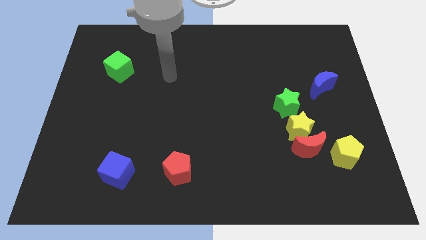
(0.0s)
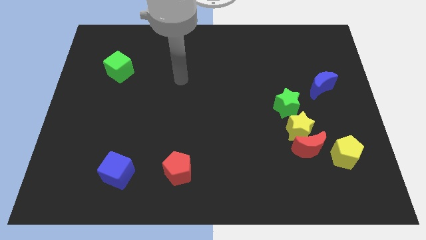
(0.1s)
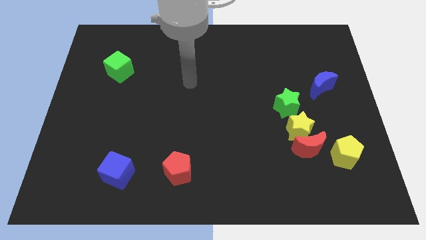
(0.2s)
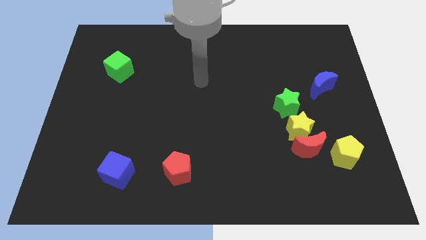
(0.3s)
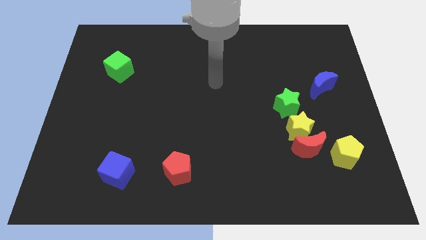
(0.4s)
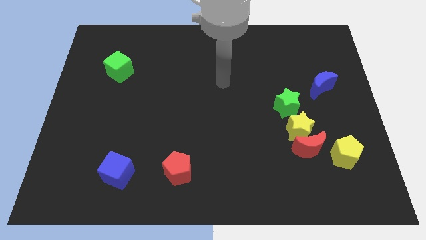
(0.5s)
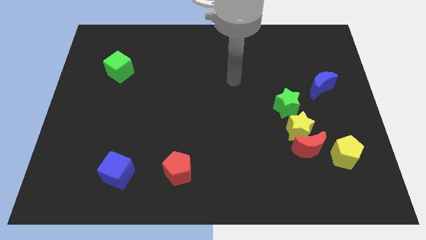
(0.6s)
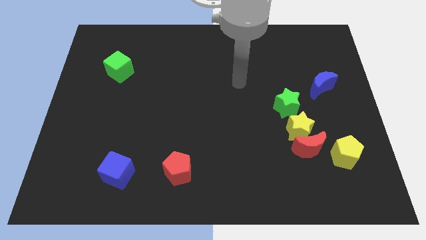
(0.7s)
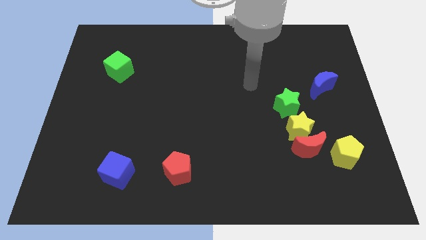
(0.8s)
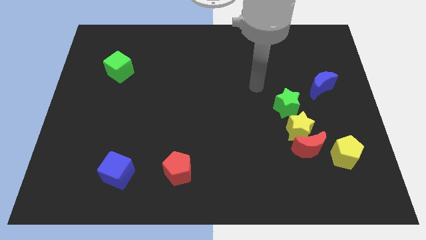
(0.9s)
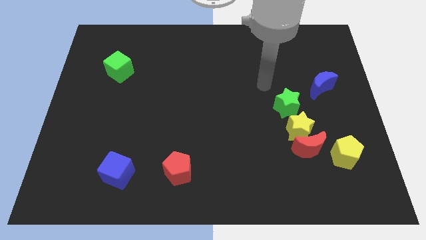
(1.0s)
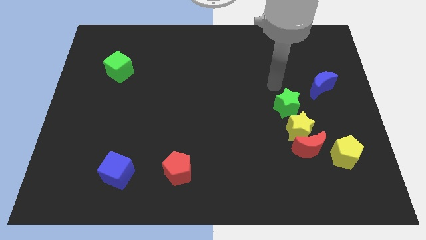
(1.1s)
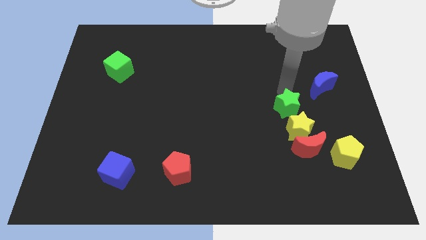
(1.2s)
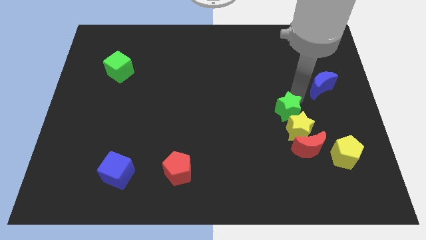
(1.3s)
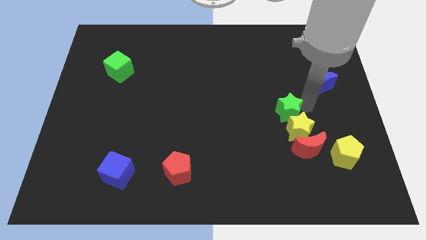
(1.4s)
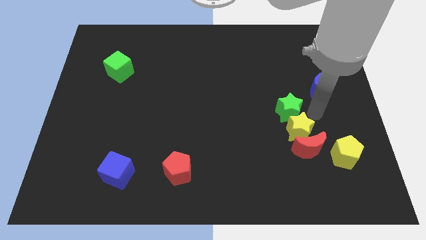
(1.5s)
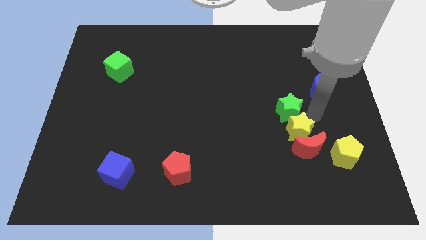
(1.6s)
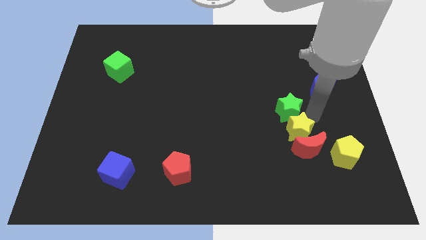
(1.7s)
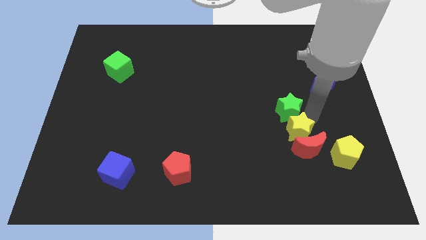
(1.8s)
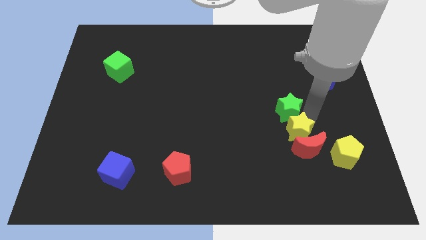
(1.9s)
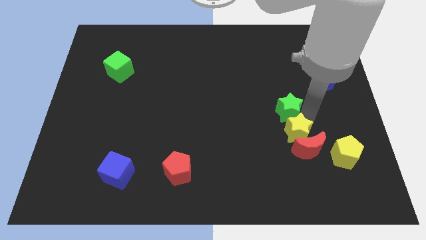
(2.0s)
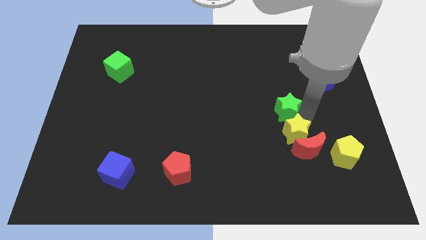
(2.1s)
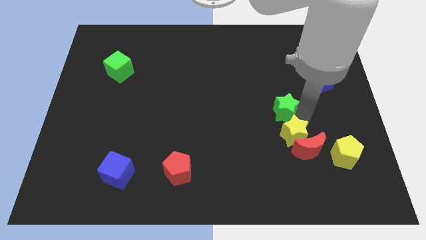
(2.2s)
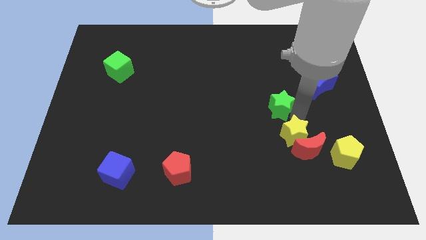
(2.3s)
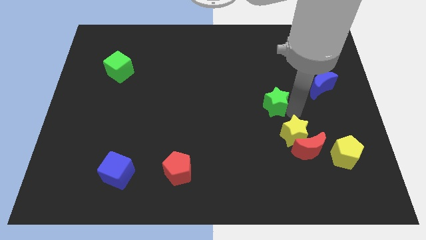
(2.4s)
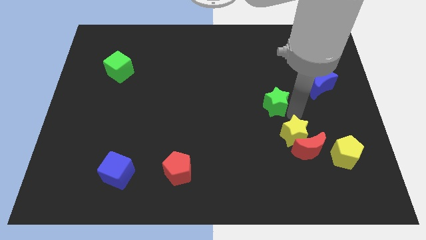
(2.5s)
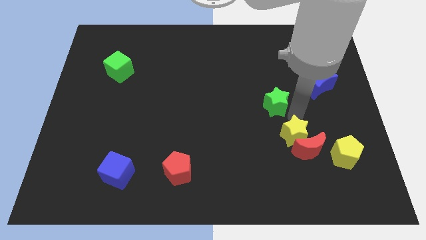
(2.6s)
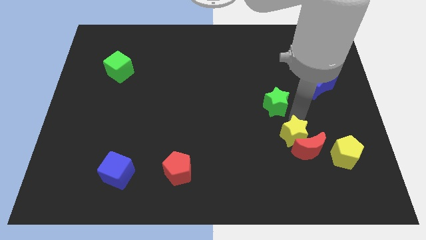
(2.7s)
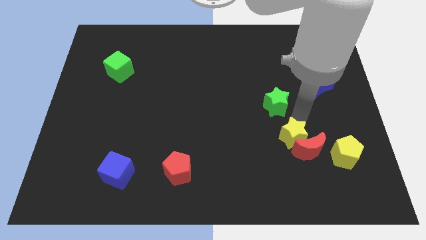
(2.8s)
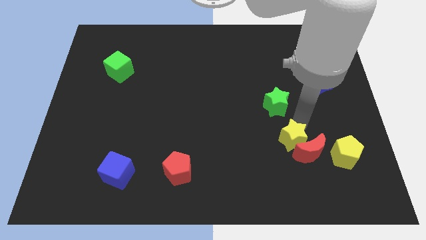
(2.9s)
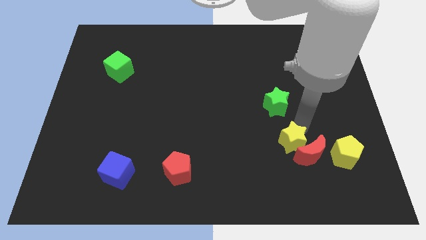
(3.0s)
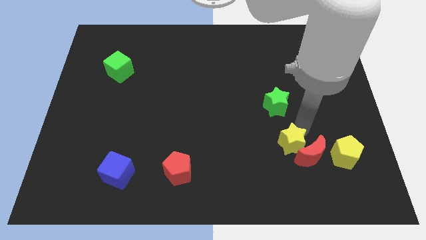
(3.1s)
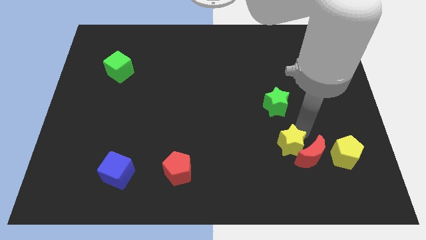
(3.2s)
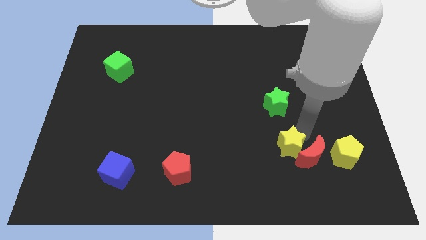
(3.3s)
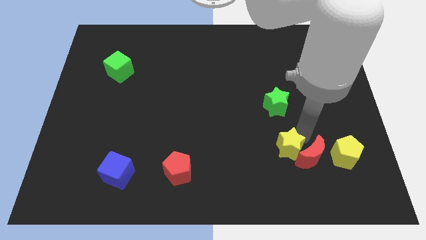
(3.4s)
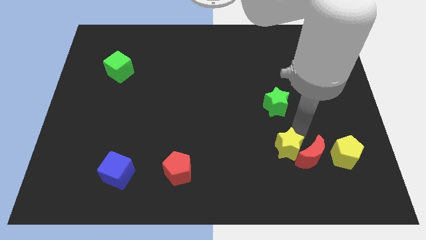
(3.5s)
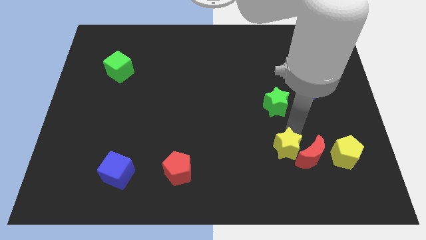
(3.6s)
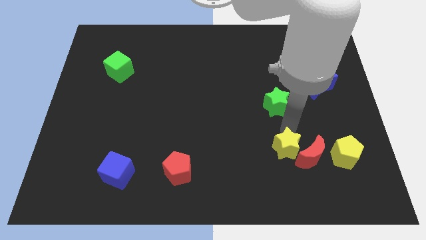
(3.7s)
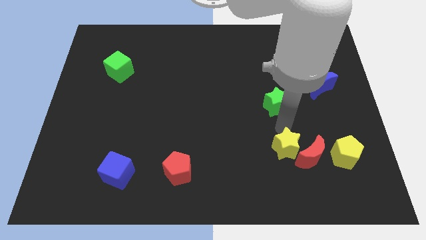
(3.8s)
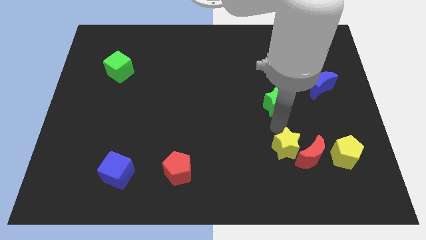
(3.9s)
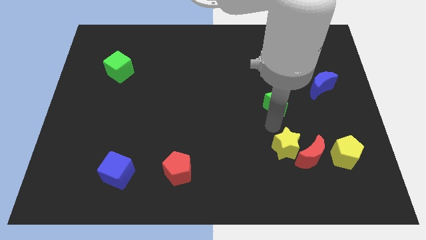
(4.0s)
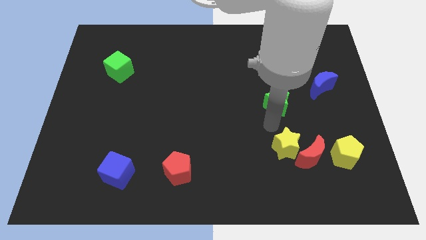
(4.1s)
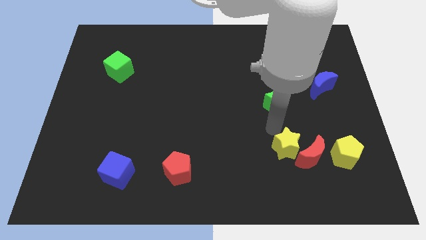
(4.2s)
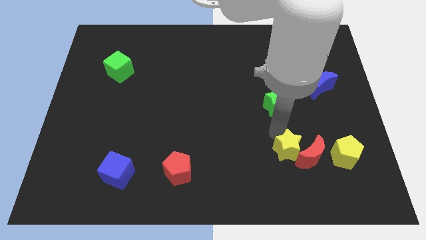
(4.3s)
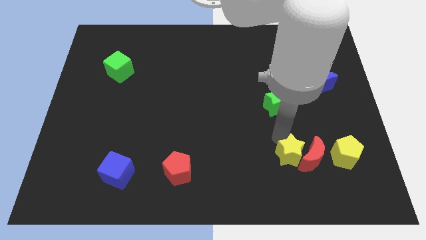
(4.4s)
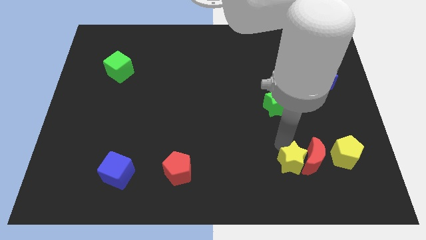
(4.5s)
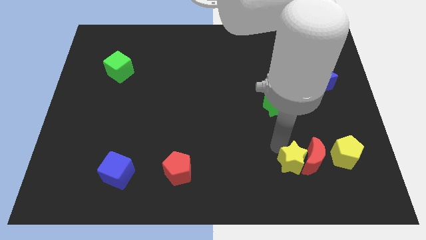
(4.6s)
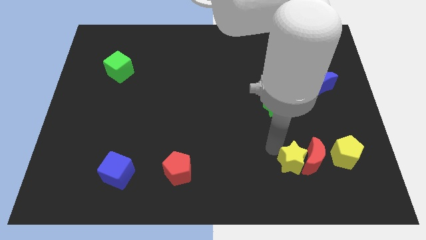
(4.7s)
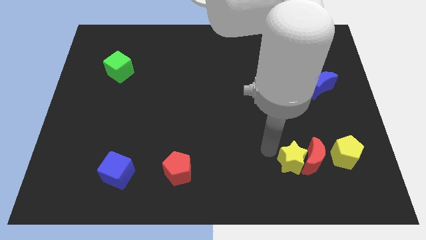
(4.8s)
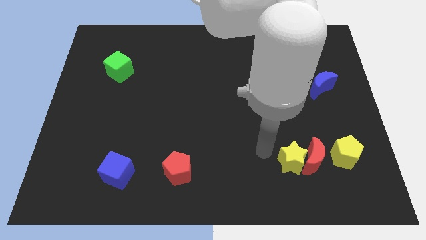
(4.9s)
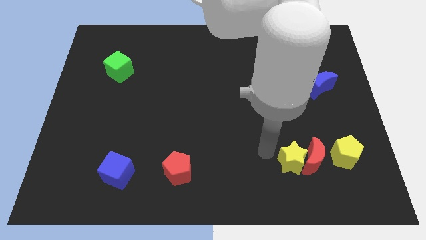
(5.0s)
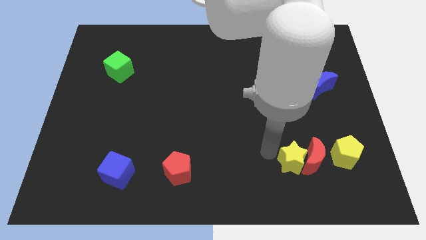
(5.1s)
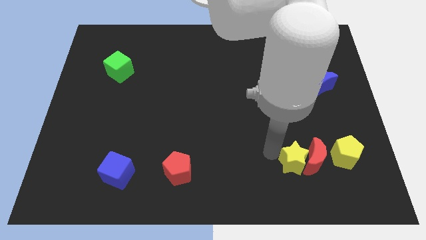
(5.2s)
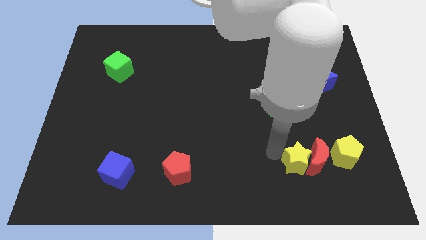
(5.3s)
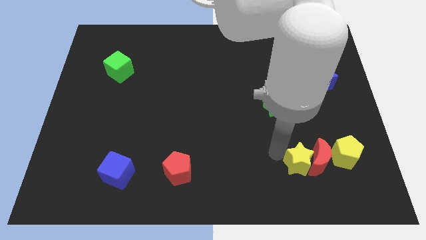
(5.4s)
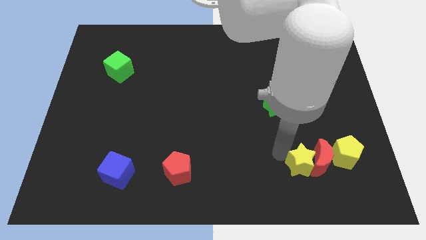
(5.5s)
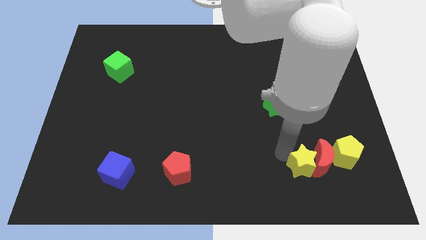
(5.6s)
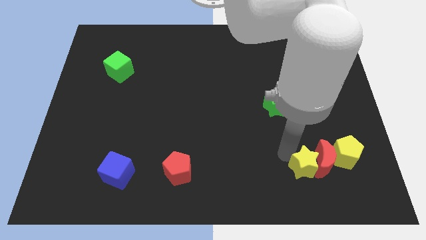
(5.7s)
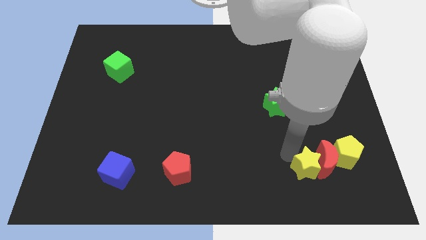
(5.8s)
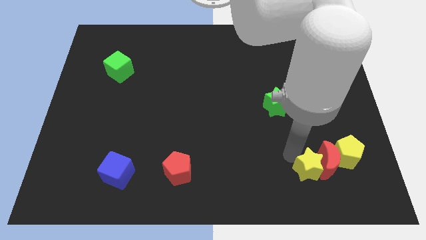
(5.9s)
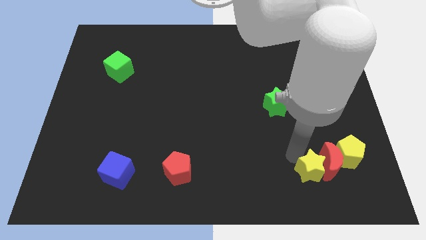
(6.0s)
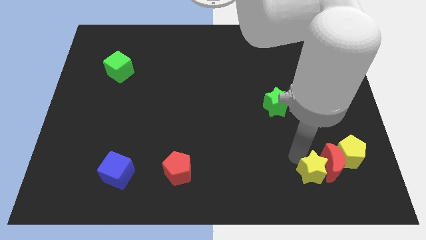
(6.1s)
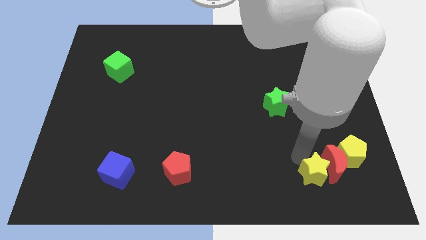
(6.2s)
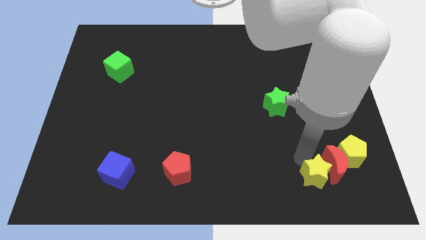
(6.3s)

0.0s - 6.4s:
separate the yellow star from the red moon and green star

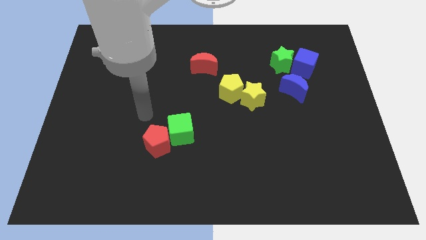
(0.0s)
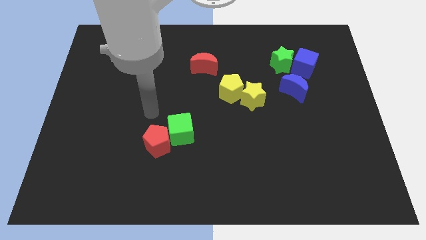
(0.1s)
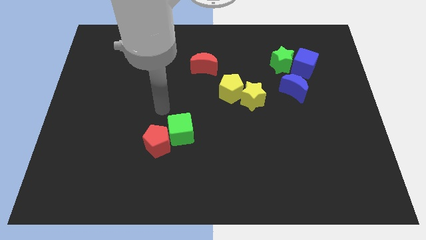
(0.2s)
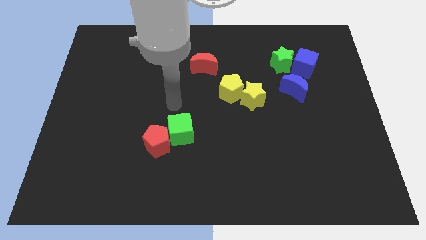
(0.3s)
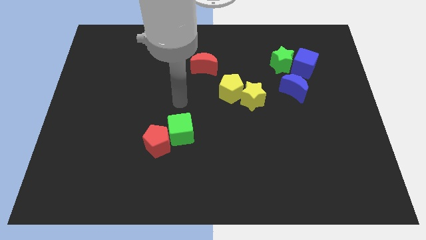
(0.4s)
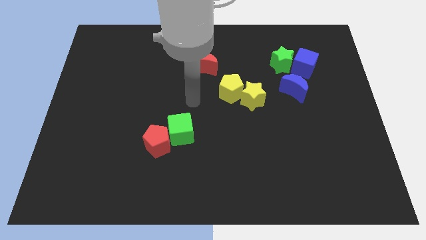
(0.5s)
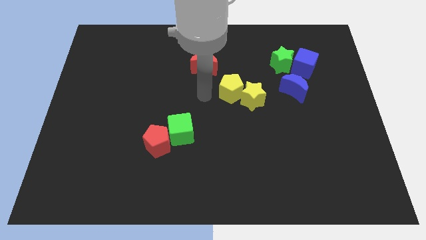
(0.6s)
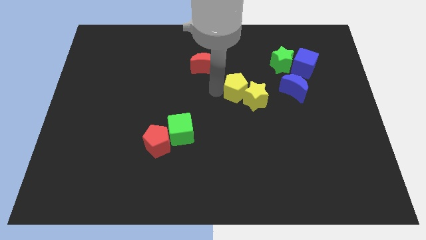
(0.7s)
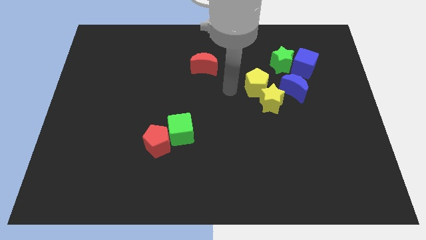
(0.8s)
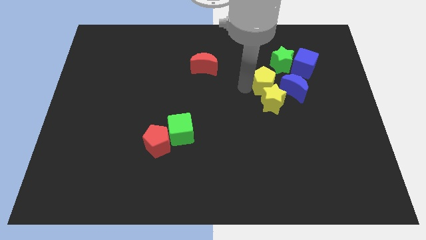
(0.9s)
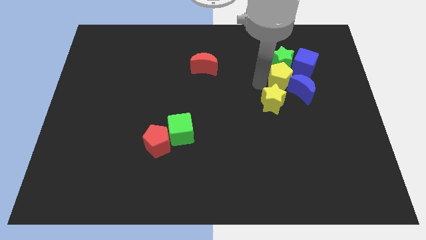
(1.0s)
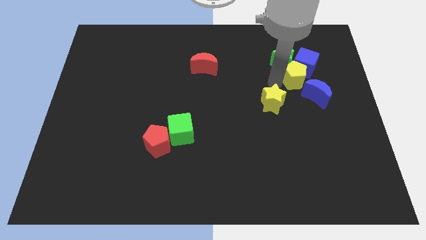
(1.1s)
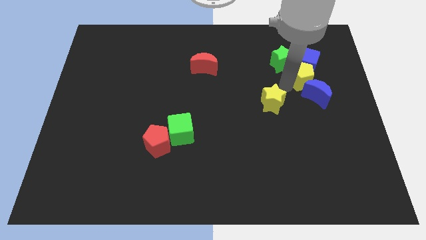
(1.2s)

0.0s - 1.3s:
pull the yellow star apart from the yellow pentagon

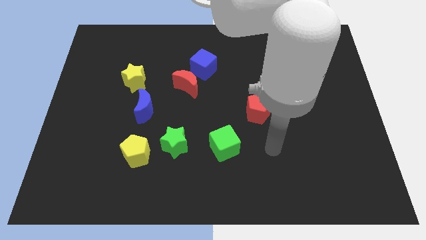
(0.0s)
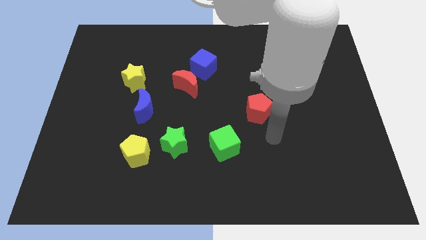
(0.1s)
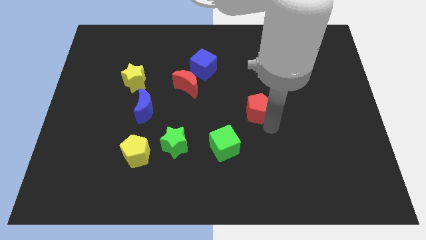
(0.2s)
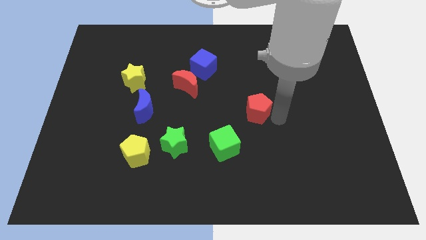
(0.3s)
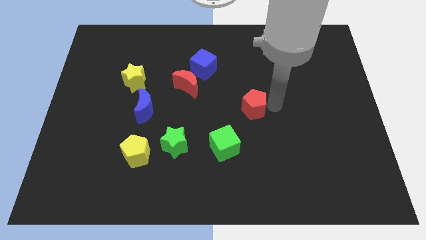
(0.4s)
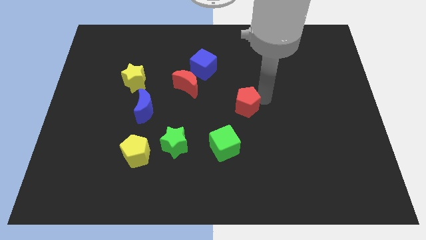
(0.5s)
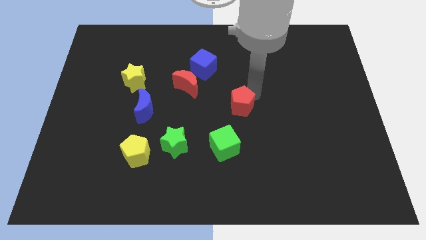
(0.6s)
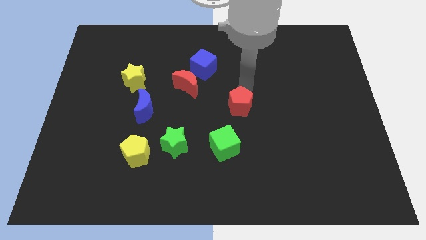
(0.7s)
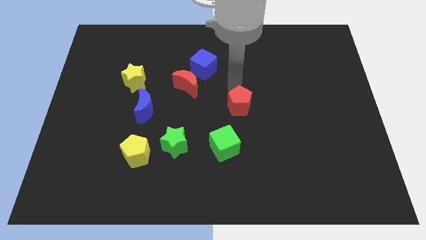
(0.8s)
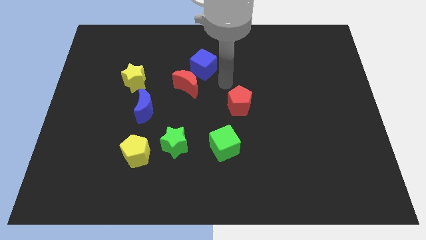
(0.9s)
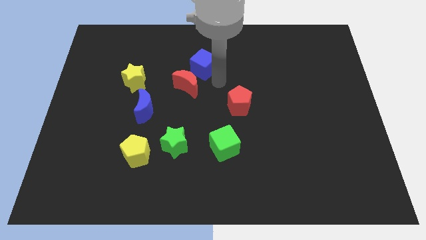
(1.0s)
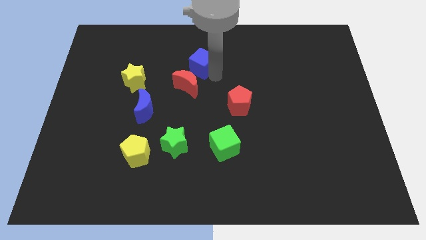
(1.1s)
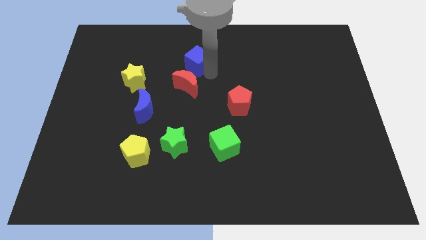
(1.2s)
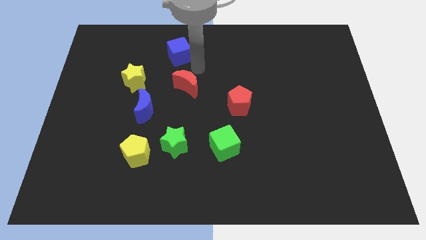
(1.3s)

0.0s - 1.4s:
separate the red moon from the blue cube

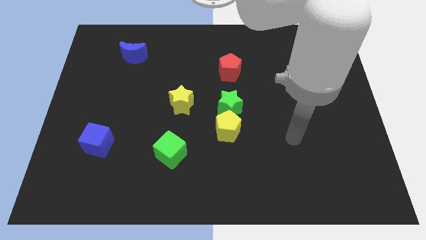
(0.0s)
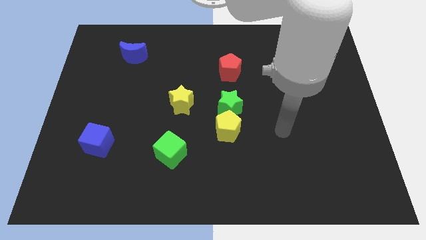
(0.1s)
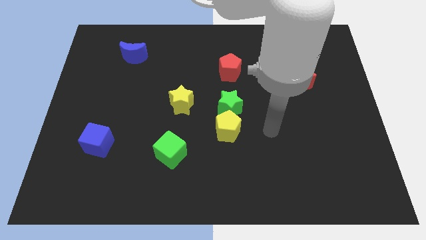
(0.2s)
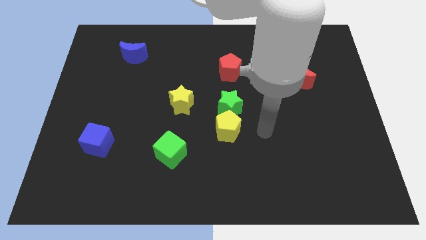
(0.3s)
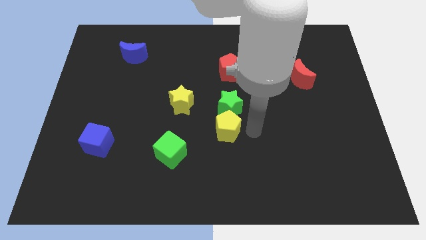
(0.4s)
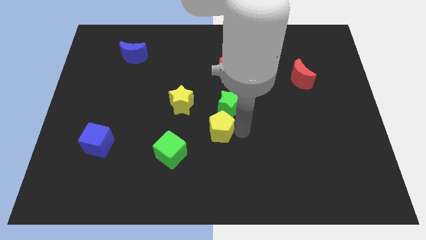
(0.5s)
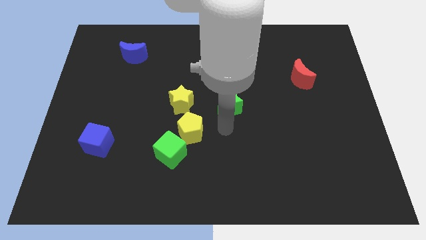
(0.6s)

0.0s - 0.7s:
move the green star away from the yellow pentagon
